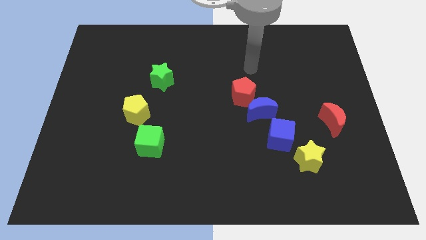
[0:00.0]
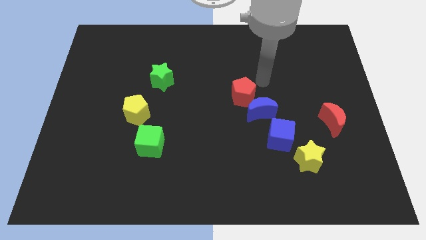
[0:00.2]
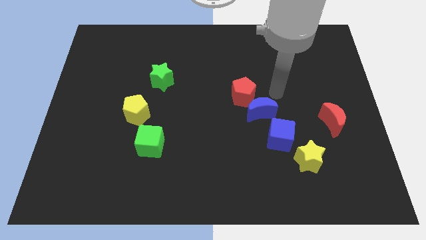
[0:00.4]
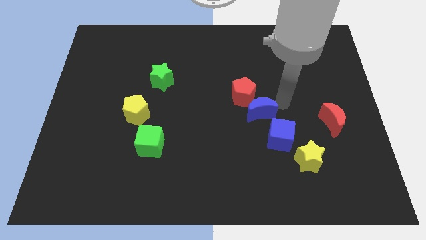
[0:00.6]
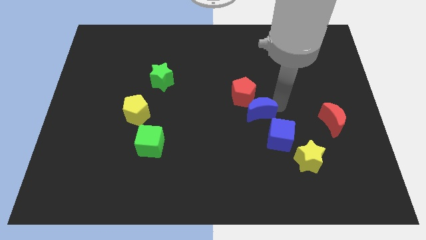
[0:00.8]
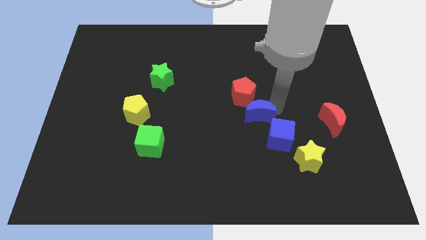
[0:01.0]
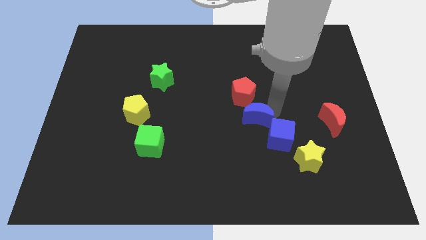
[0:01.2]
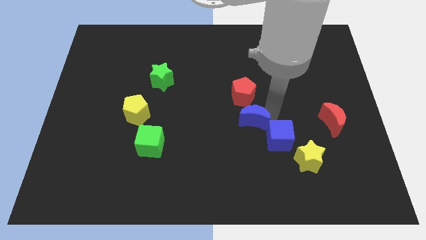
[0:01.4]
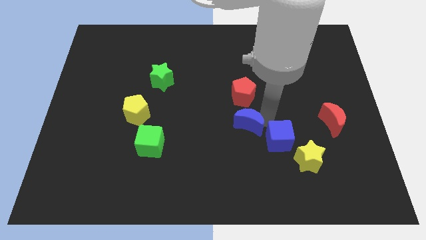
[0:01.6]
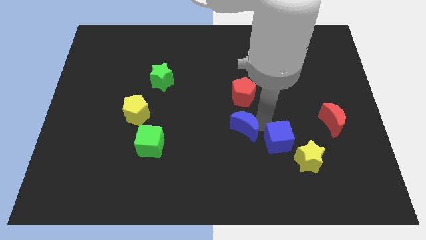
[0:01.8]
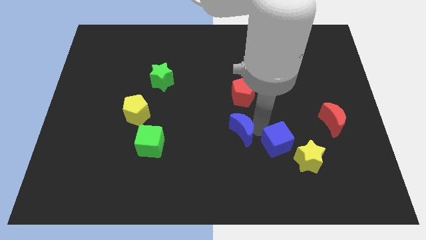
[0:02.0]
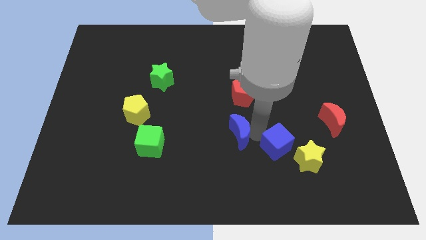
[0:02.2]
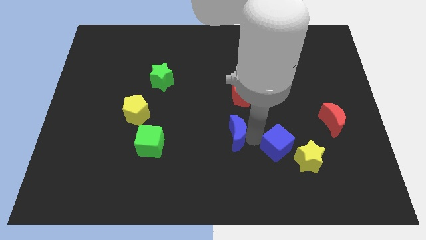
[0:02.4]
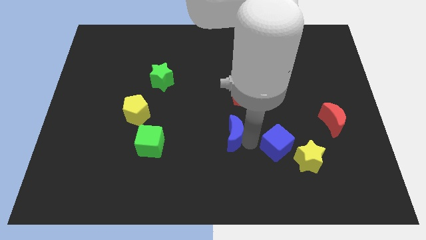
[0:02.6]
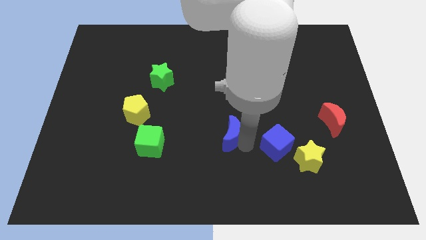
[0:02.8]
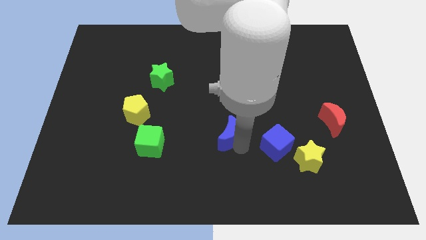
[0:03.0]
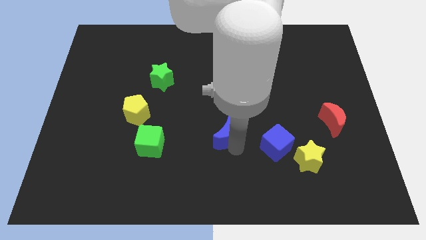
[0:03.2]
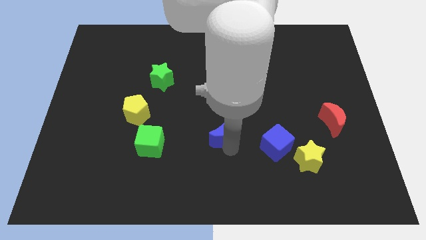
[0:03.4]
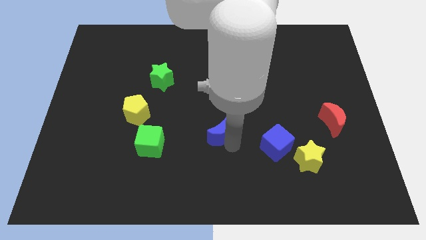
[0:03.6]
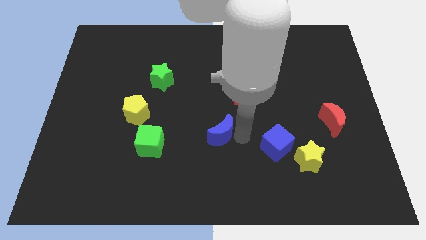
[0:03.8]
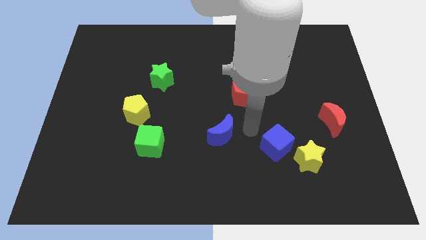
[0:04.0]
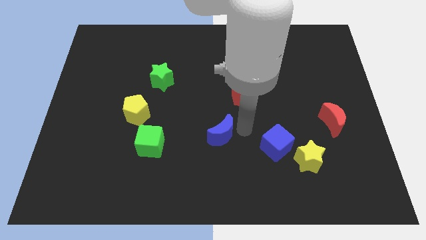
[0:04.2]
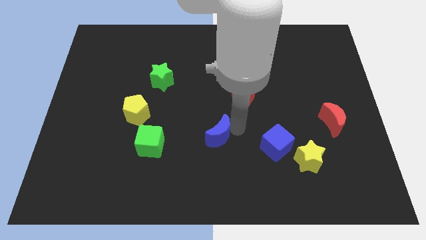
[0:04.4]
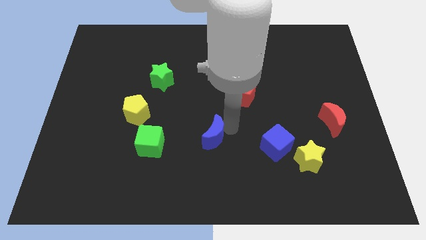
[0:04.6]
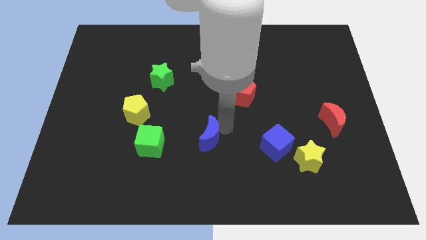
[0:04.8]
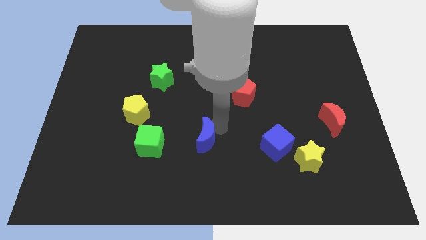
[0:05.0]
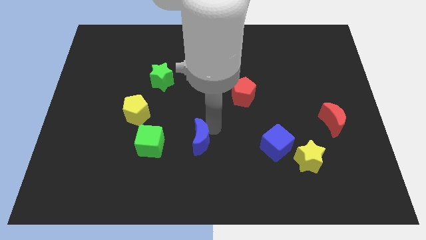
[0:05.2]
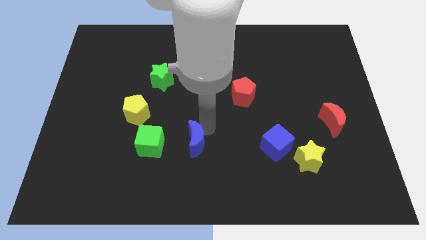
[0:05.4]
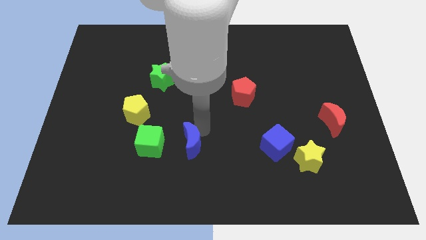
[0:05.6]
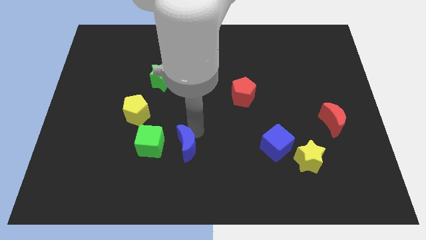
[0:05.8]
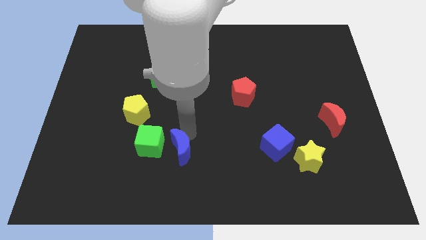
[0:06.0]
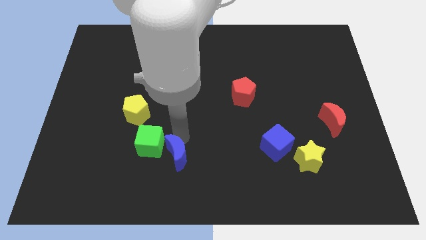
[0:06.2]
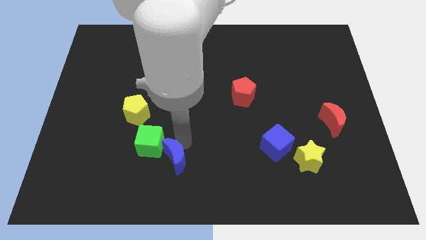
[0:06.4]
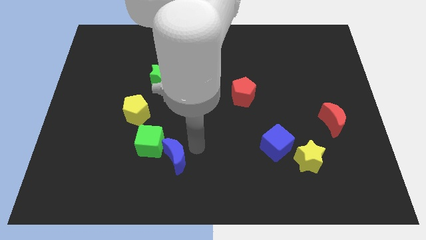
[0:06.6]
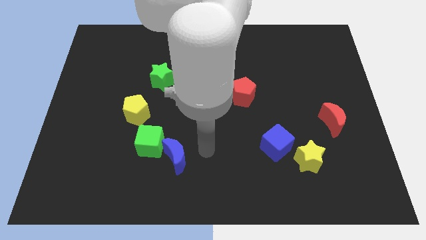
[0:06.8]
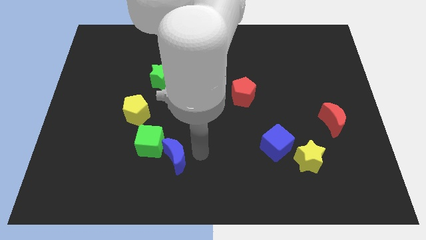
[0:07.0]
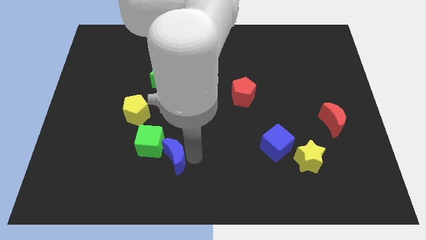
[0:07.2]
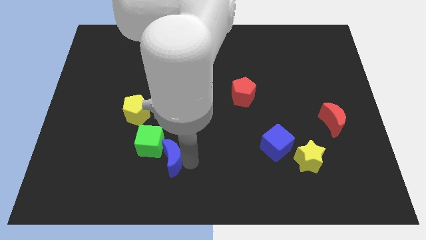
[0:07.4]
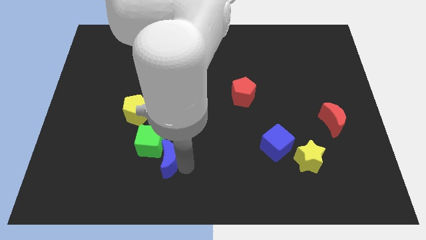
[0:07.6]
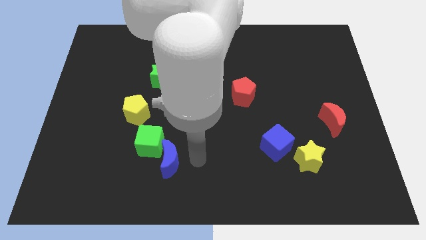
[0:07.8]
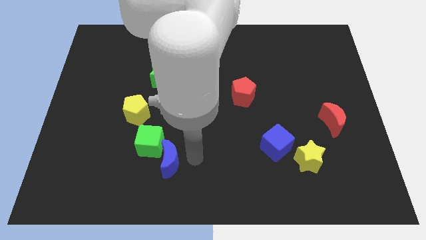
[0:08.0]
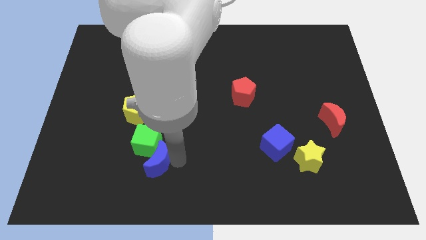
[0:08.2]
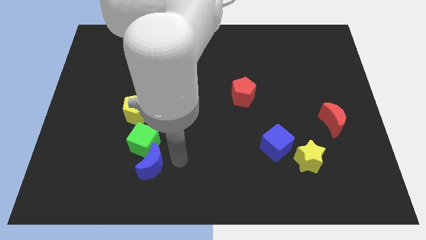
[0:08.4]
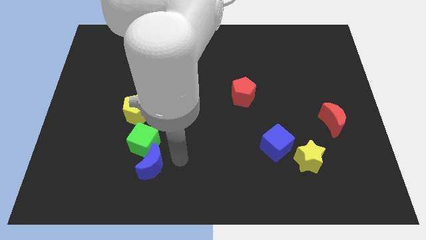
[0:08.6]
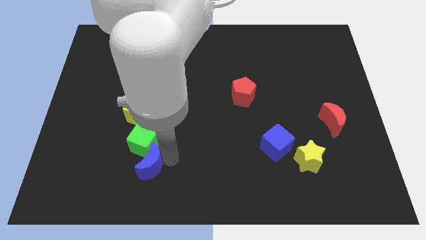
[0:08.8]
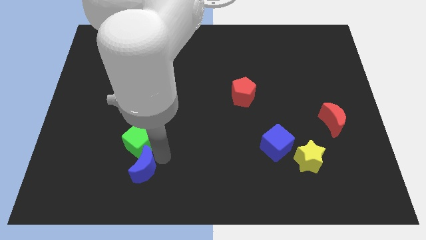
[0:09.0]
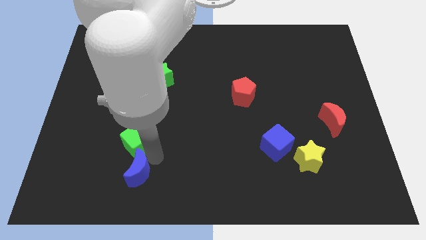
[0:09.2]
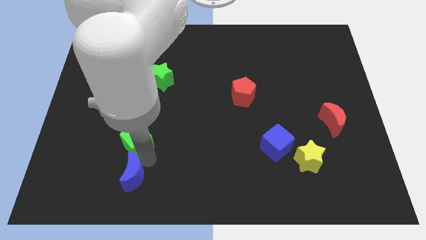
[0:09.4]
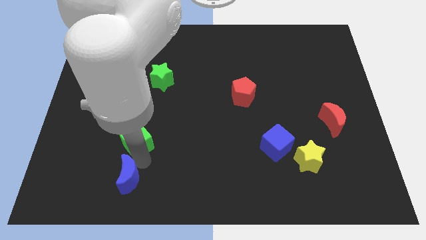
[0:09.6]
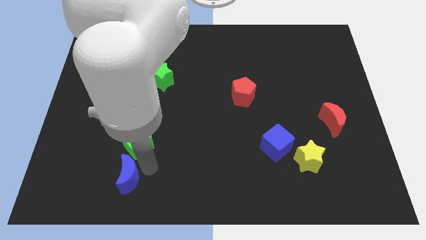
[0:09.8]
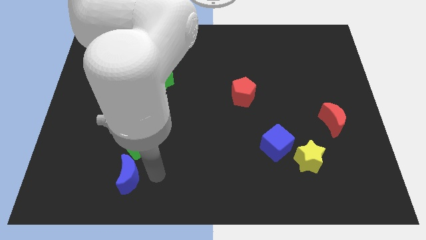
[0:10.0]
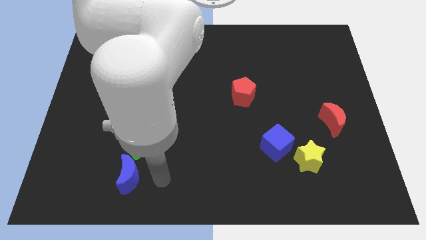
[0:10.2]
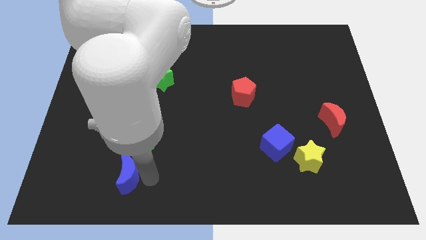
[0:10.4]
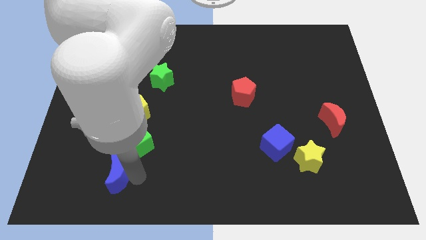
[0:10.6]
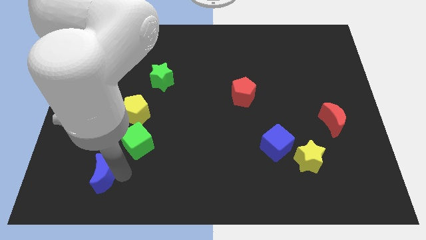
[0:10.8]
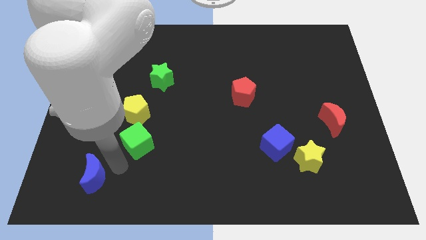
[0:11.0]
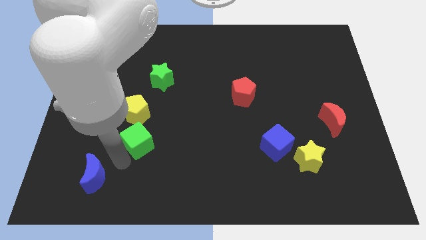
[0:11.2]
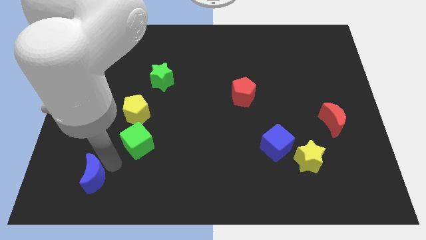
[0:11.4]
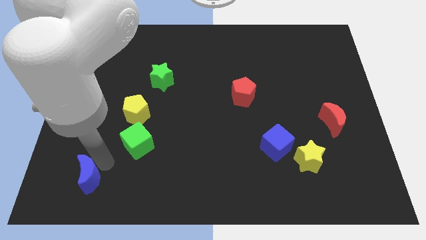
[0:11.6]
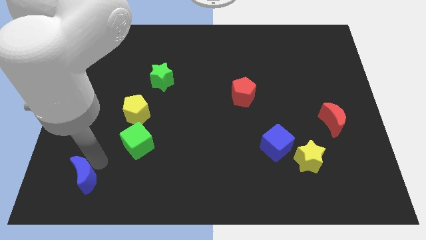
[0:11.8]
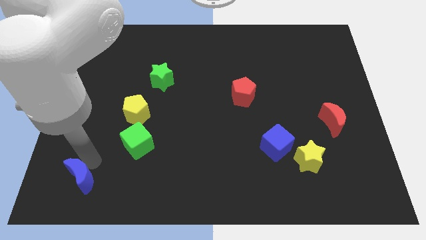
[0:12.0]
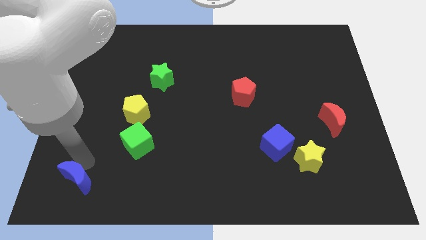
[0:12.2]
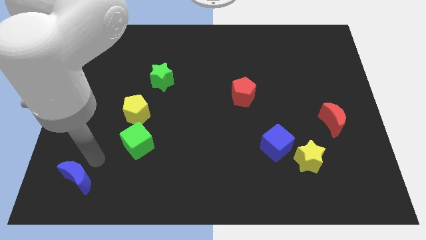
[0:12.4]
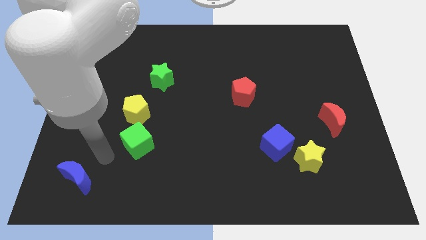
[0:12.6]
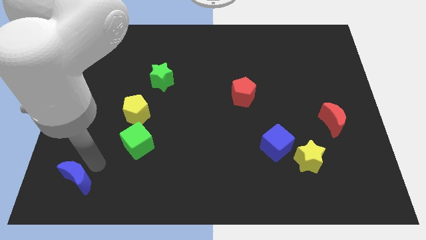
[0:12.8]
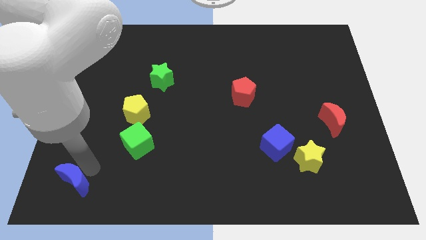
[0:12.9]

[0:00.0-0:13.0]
slide the blue moon to the bottom left corner

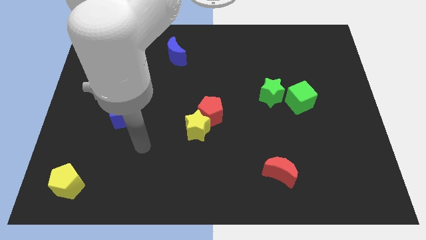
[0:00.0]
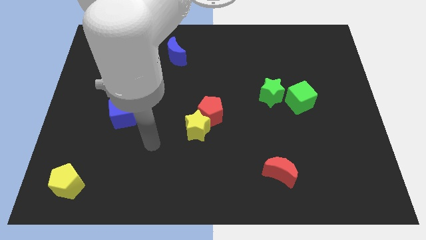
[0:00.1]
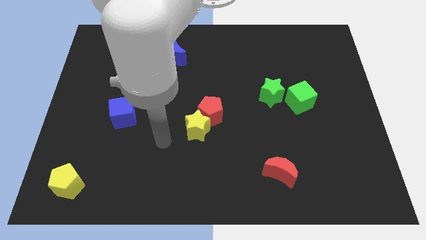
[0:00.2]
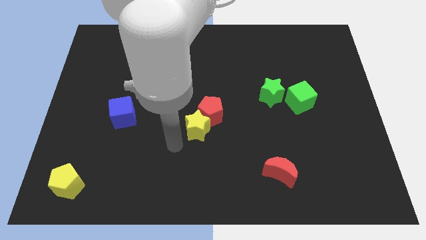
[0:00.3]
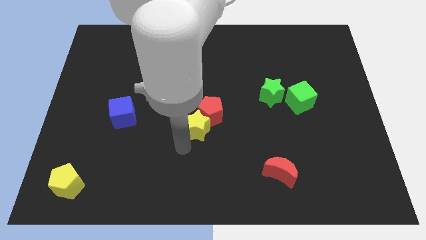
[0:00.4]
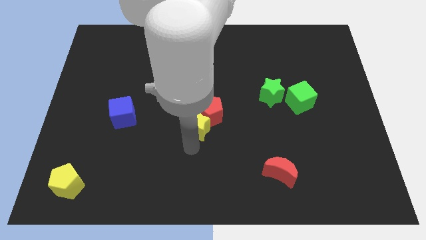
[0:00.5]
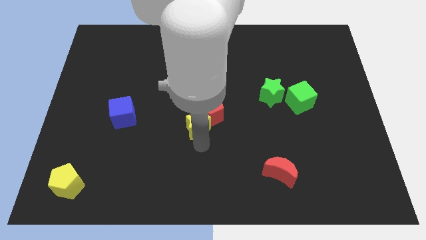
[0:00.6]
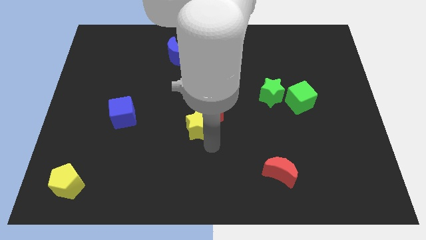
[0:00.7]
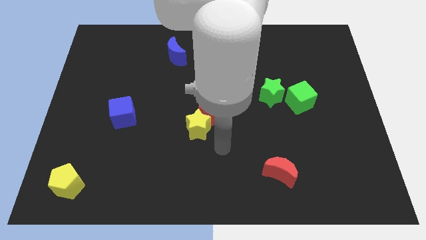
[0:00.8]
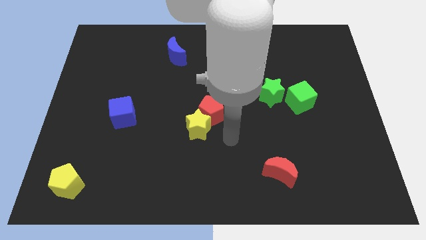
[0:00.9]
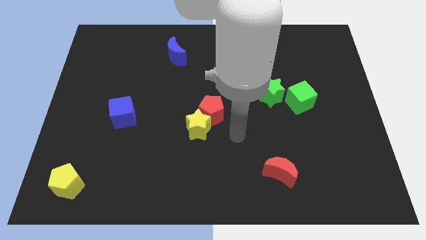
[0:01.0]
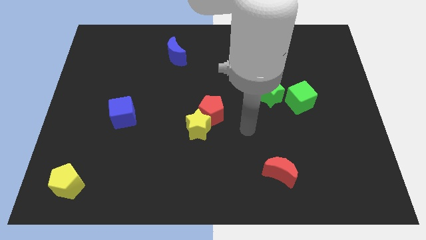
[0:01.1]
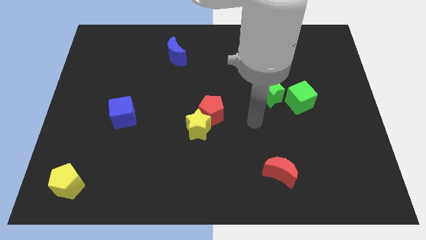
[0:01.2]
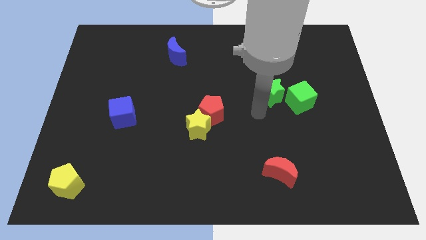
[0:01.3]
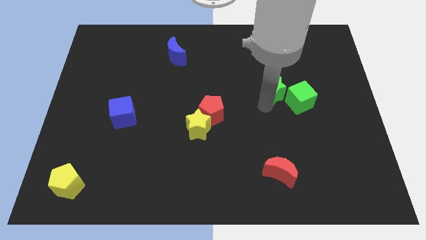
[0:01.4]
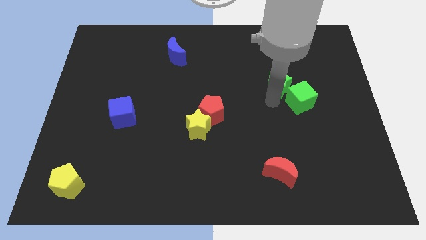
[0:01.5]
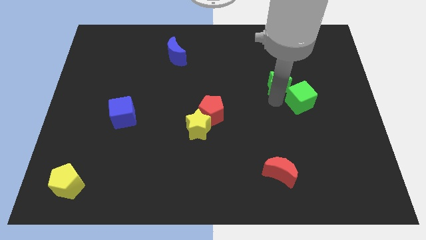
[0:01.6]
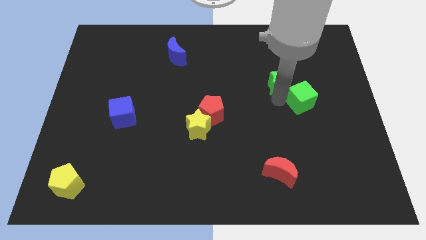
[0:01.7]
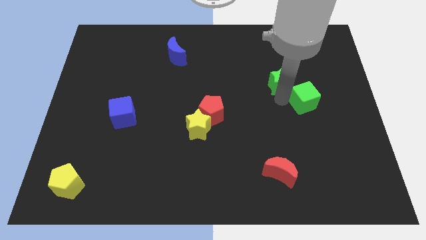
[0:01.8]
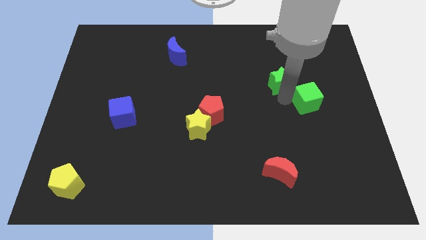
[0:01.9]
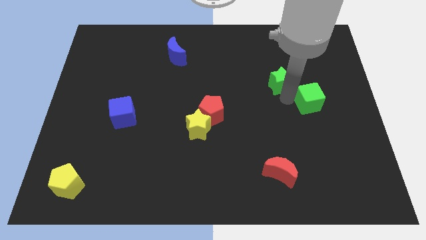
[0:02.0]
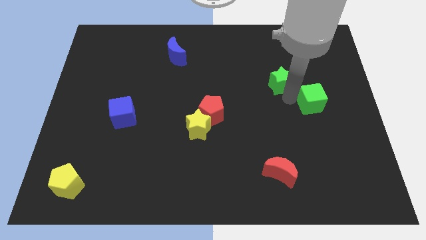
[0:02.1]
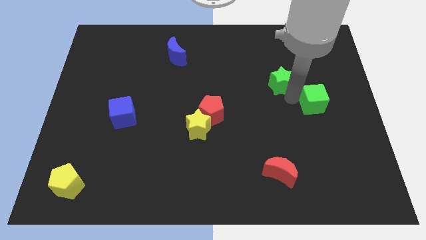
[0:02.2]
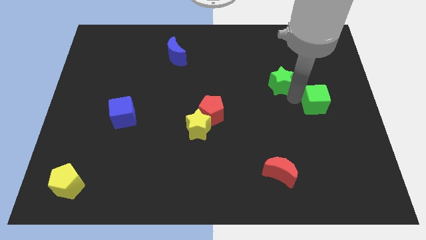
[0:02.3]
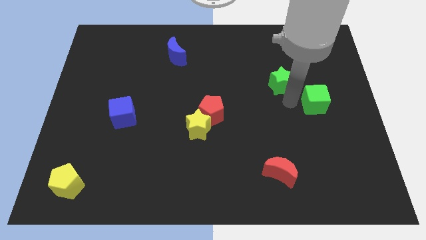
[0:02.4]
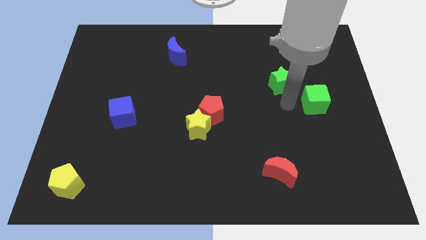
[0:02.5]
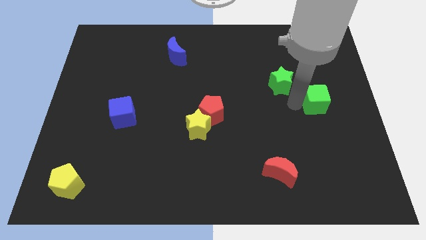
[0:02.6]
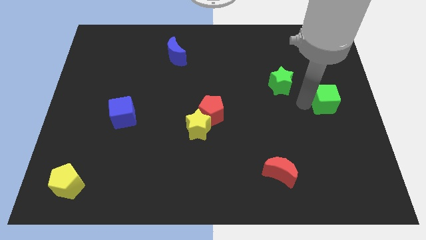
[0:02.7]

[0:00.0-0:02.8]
move the green cube to the right side of the board
